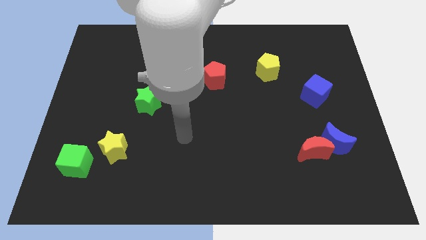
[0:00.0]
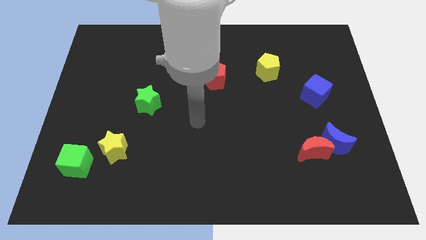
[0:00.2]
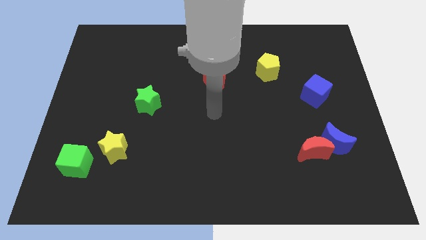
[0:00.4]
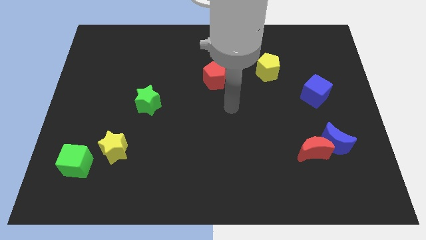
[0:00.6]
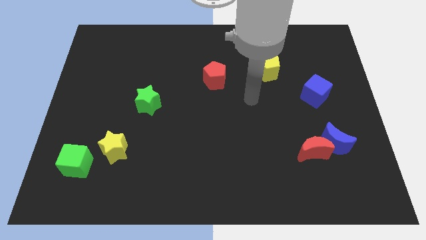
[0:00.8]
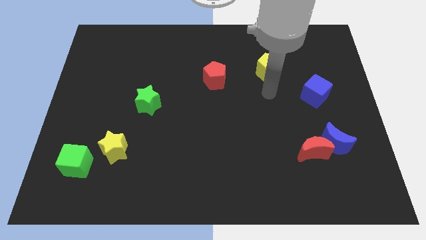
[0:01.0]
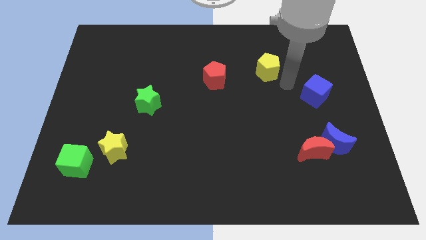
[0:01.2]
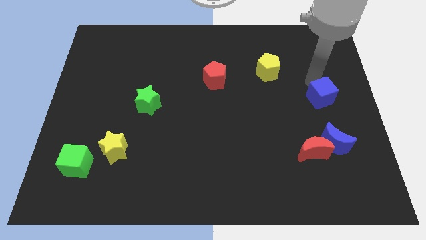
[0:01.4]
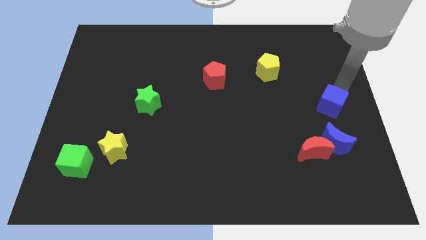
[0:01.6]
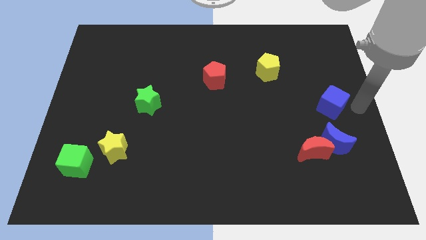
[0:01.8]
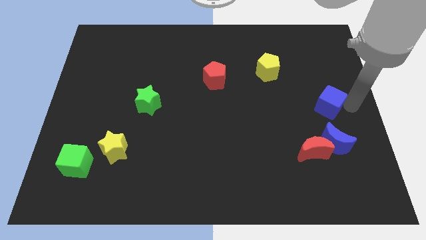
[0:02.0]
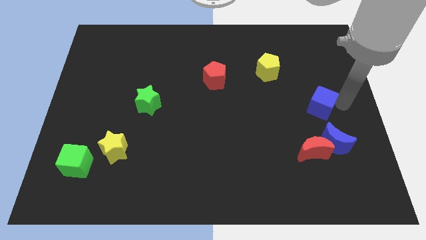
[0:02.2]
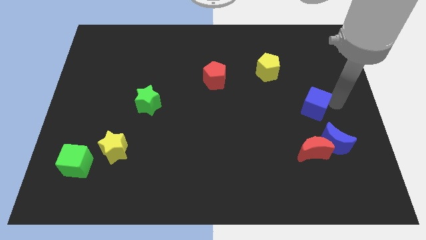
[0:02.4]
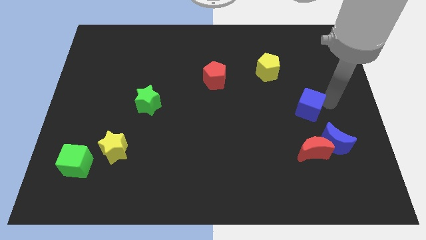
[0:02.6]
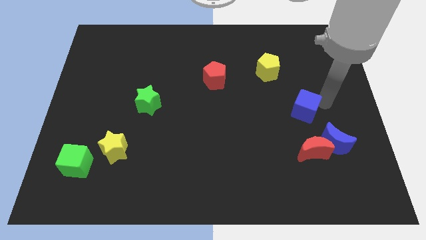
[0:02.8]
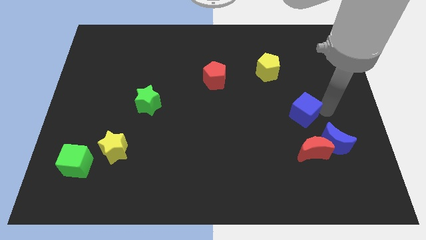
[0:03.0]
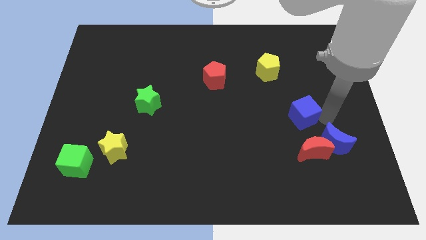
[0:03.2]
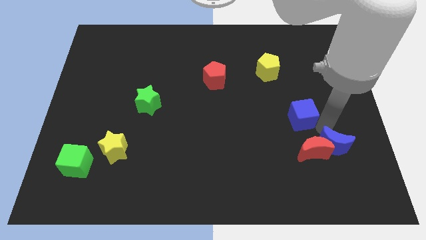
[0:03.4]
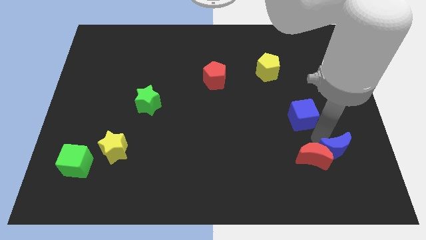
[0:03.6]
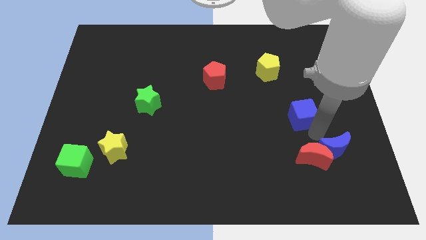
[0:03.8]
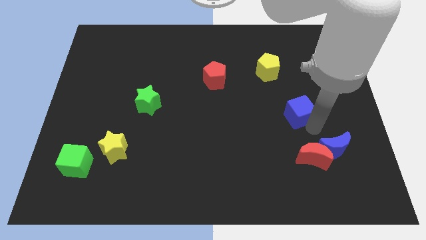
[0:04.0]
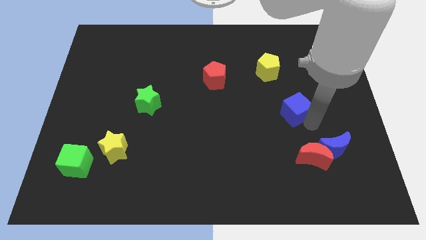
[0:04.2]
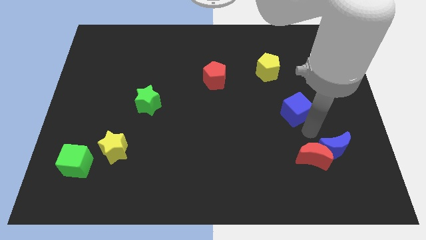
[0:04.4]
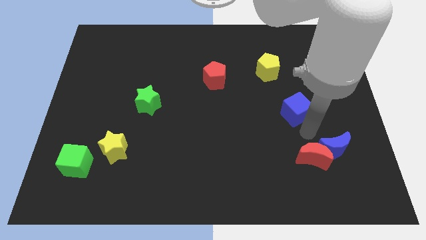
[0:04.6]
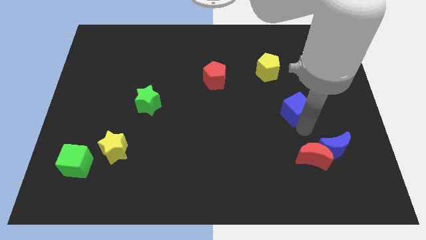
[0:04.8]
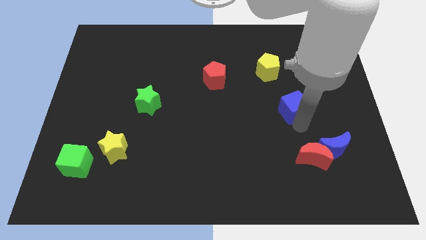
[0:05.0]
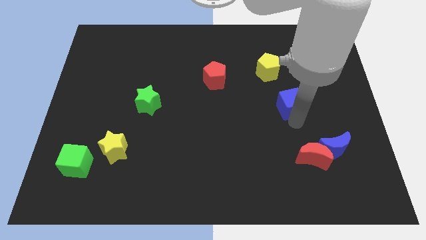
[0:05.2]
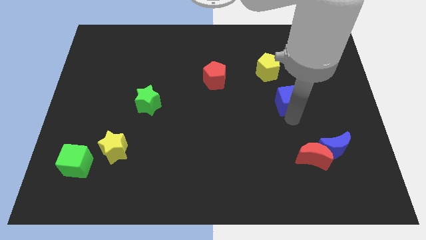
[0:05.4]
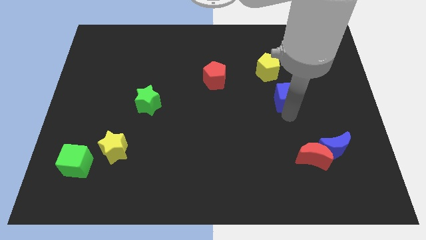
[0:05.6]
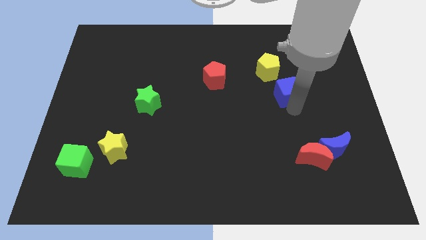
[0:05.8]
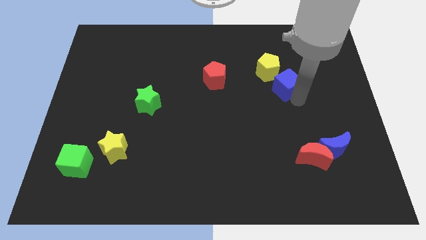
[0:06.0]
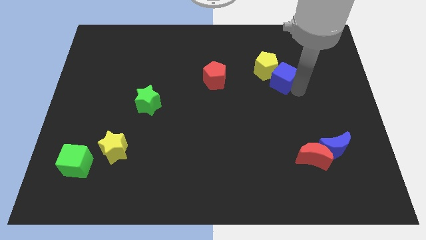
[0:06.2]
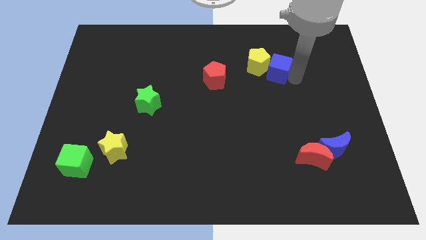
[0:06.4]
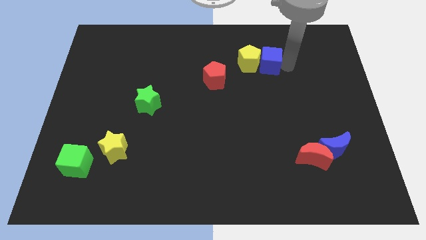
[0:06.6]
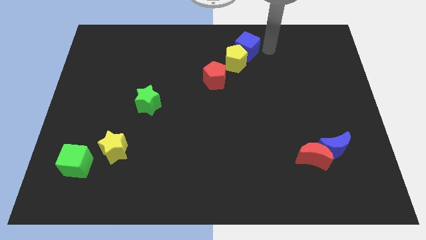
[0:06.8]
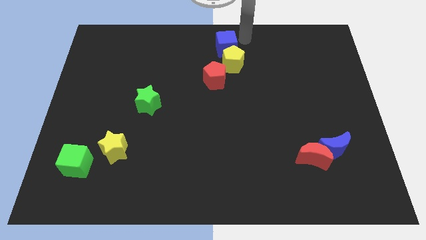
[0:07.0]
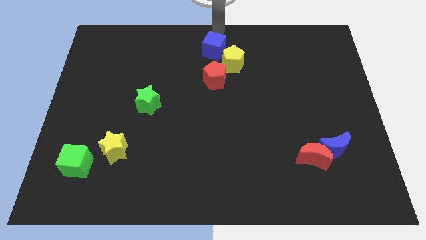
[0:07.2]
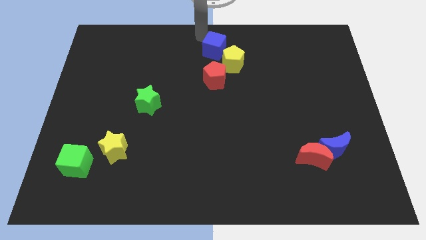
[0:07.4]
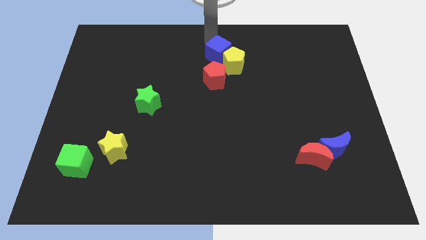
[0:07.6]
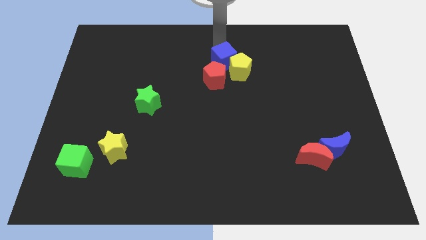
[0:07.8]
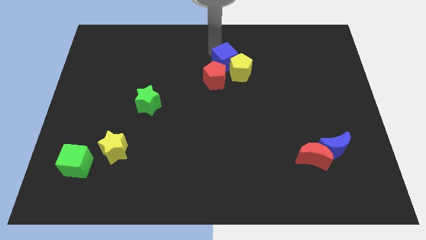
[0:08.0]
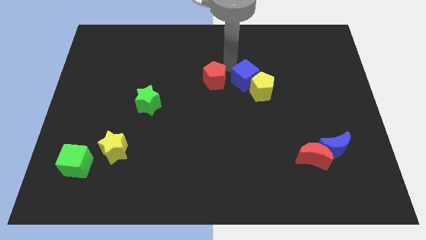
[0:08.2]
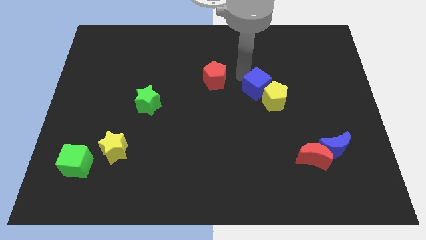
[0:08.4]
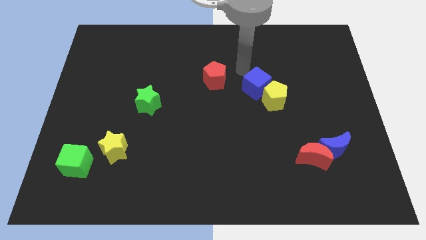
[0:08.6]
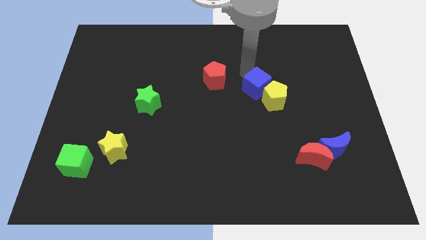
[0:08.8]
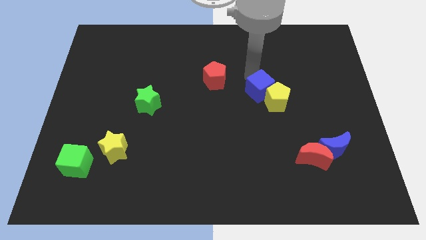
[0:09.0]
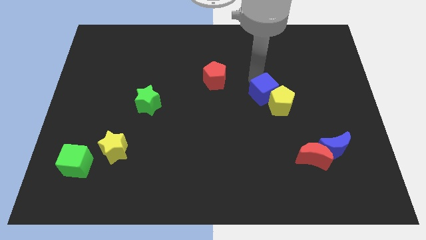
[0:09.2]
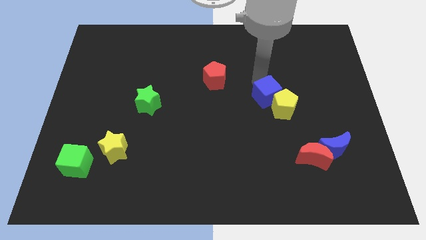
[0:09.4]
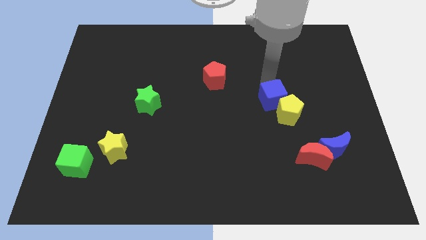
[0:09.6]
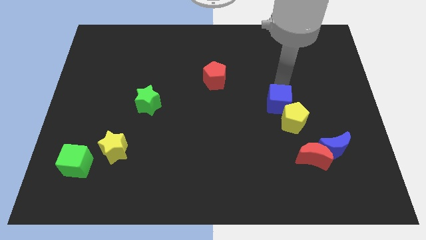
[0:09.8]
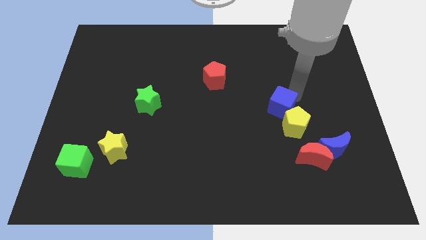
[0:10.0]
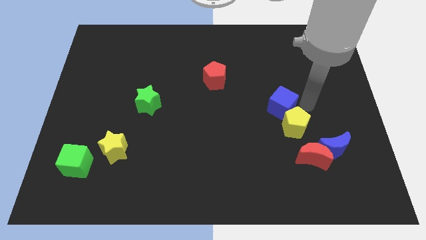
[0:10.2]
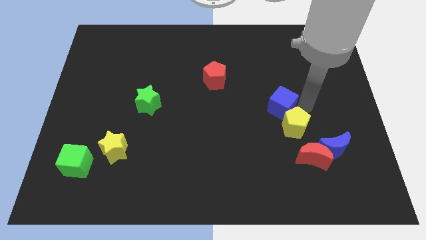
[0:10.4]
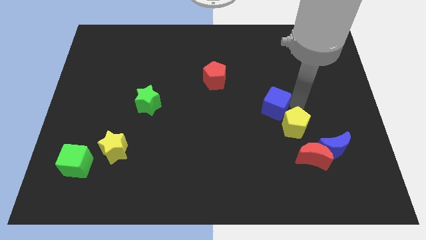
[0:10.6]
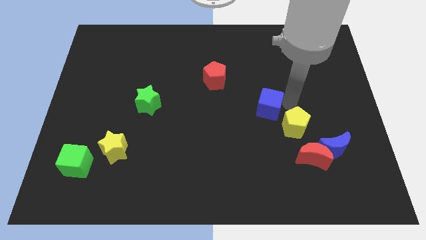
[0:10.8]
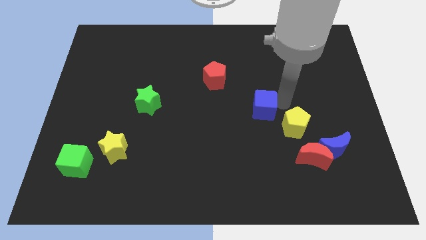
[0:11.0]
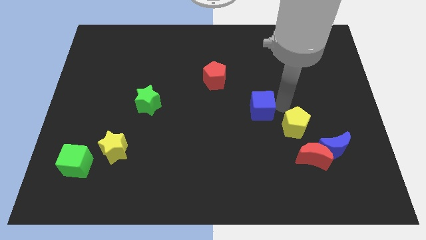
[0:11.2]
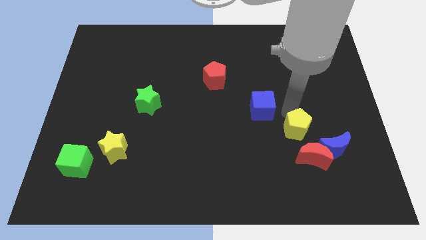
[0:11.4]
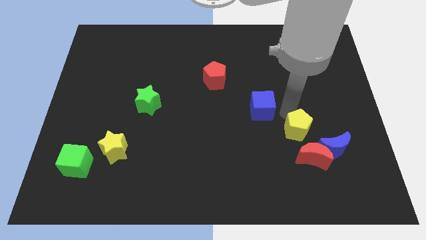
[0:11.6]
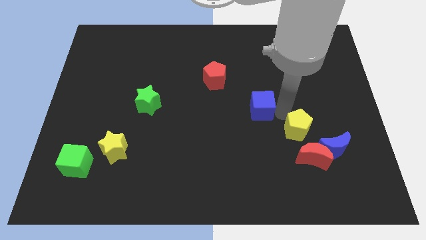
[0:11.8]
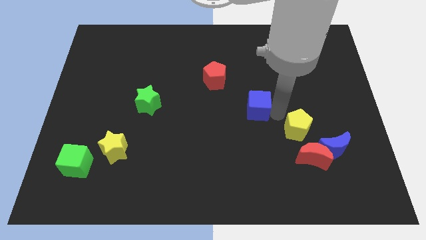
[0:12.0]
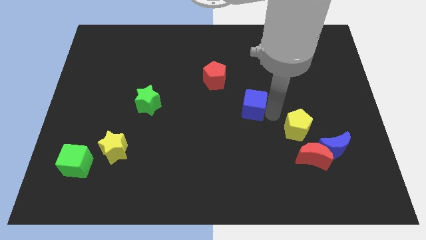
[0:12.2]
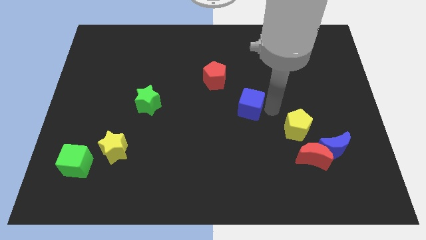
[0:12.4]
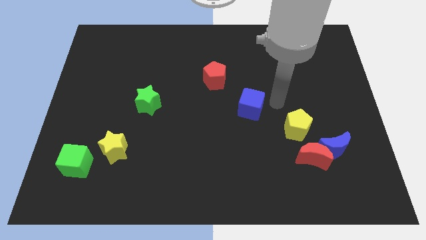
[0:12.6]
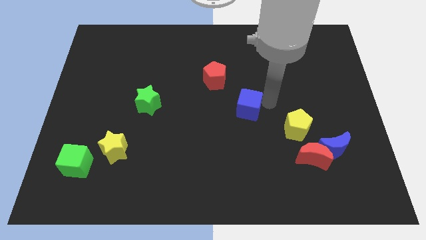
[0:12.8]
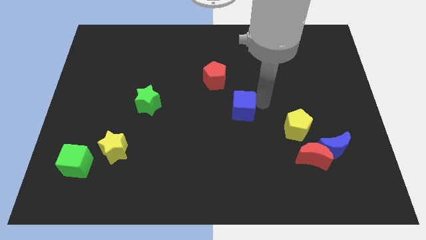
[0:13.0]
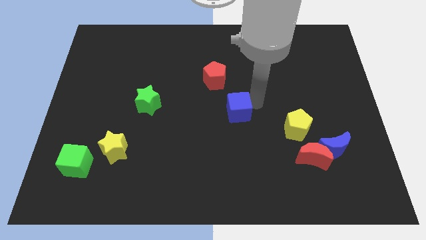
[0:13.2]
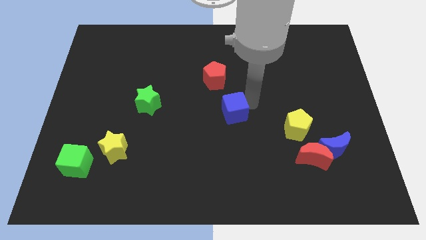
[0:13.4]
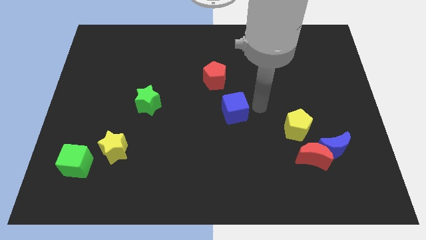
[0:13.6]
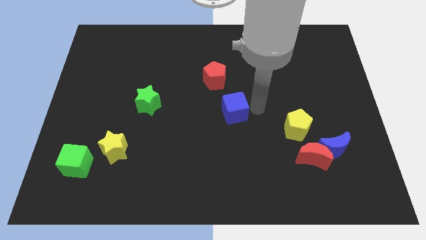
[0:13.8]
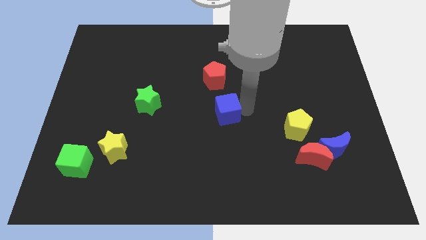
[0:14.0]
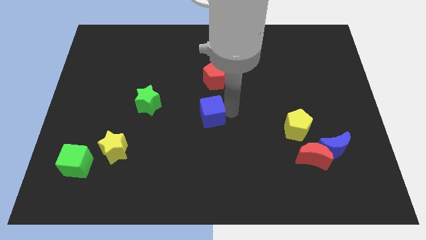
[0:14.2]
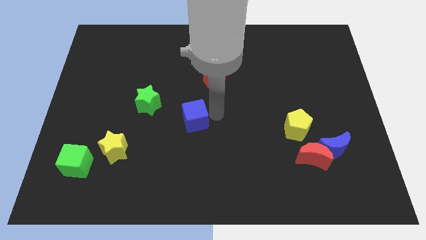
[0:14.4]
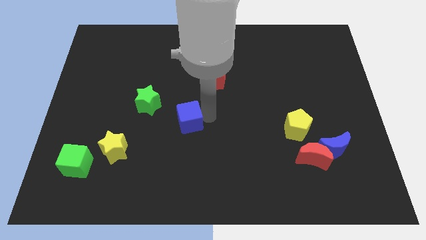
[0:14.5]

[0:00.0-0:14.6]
push the blue cube to the bottom right of the green star
